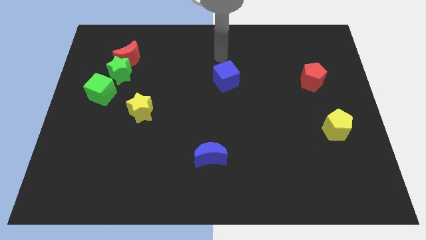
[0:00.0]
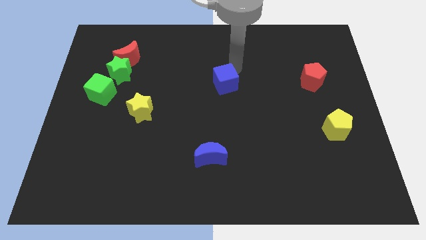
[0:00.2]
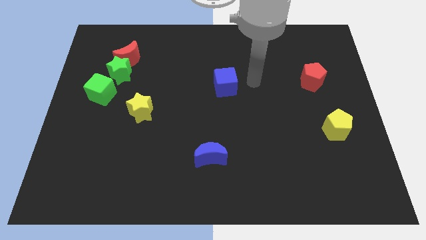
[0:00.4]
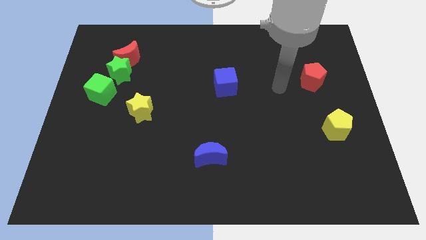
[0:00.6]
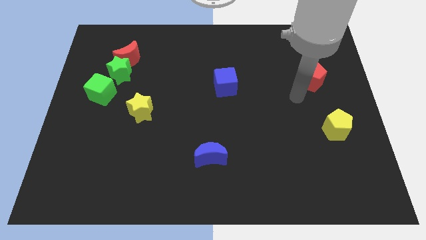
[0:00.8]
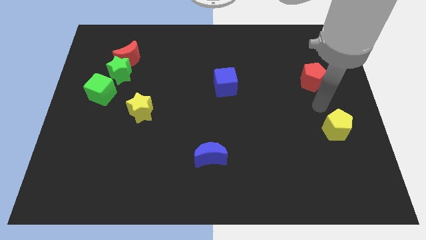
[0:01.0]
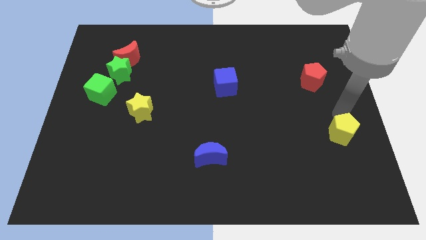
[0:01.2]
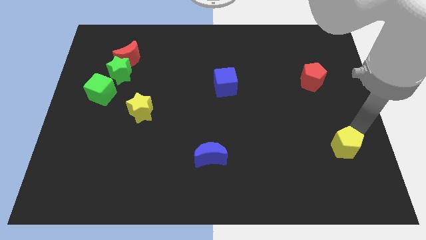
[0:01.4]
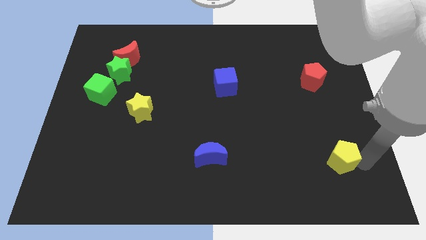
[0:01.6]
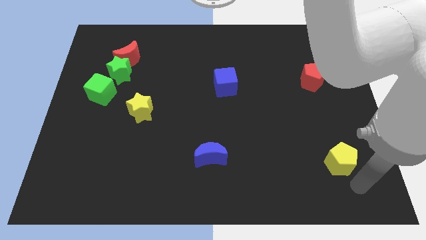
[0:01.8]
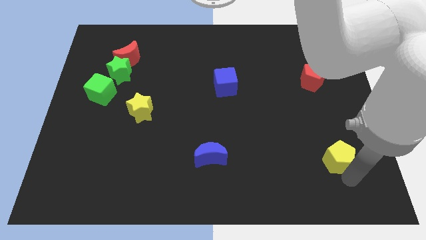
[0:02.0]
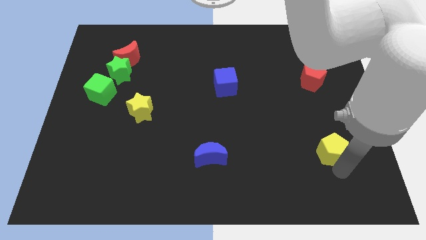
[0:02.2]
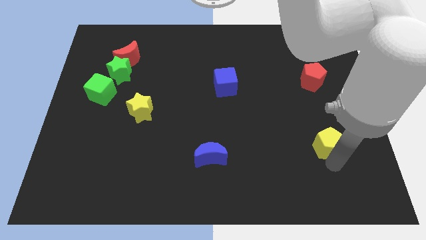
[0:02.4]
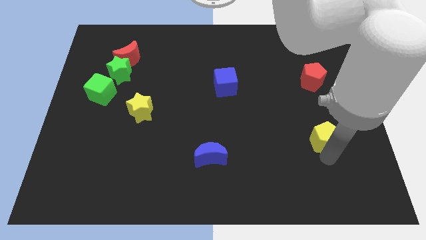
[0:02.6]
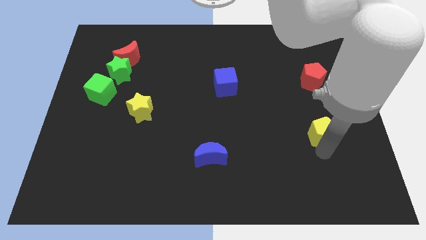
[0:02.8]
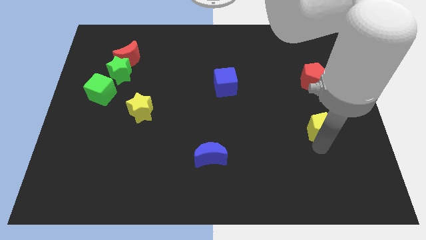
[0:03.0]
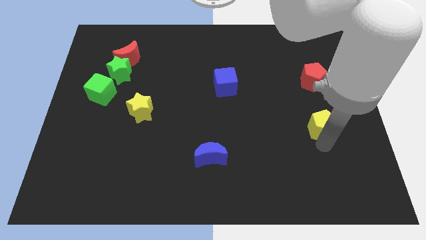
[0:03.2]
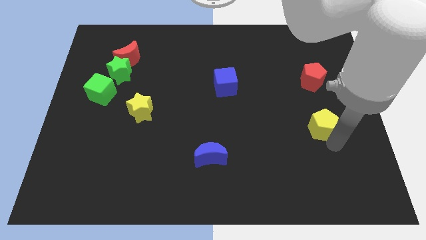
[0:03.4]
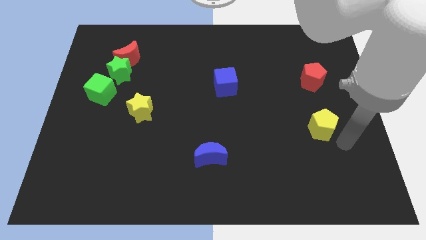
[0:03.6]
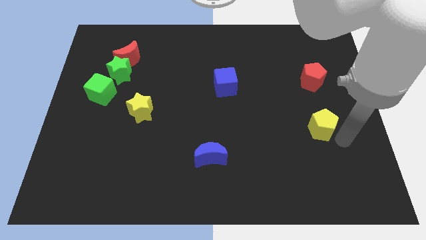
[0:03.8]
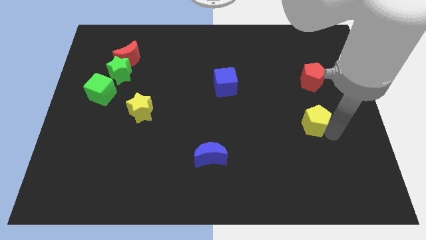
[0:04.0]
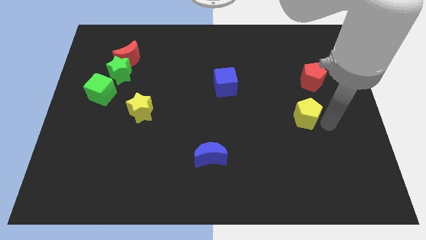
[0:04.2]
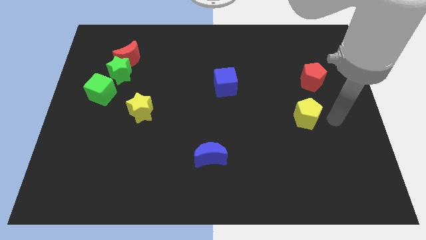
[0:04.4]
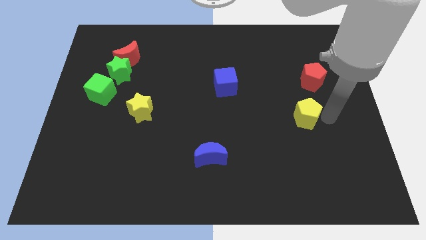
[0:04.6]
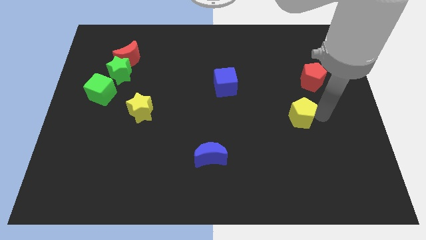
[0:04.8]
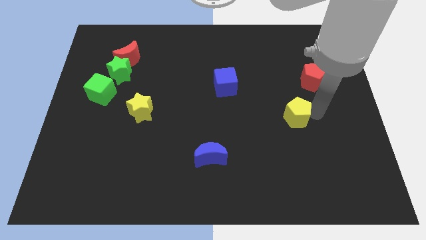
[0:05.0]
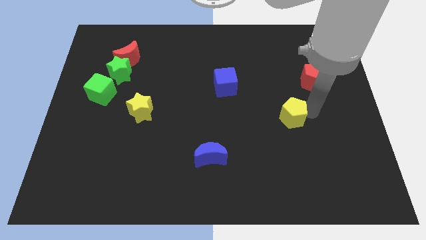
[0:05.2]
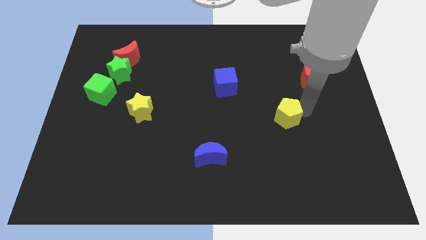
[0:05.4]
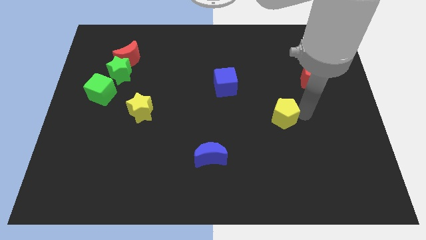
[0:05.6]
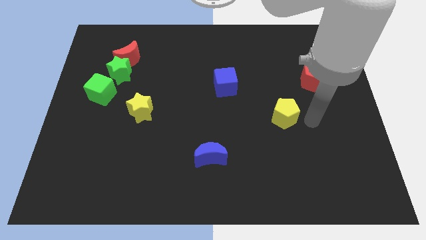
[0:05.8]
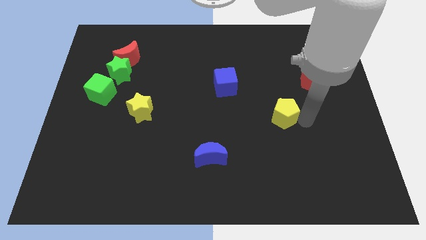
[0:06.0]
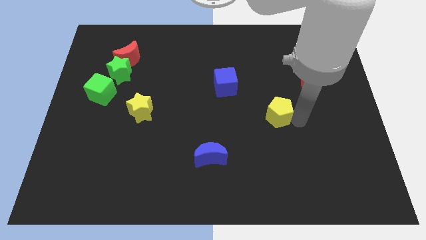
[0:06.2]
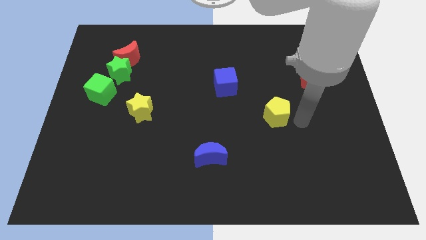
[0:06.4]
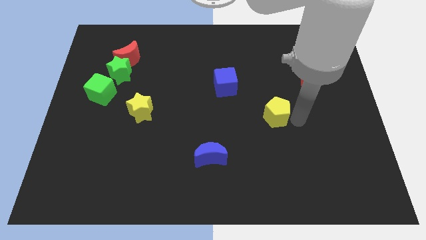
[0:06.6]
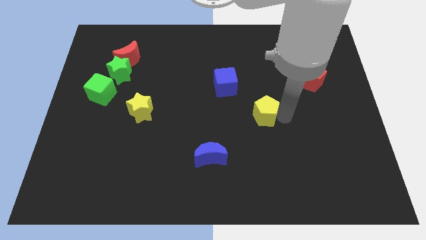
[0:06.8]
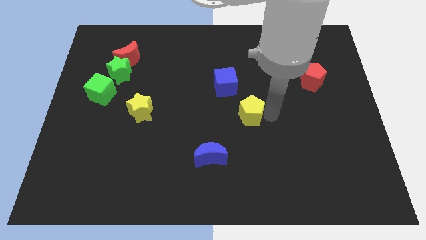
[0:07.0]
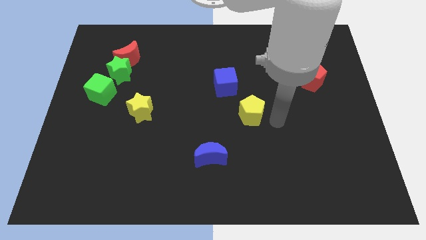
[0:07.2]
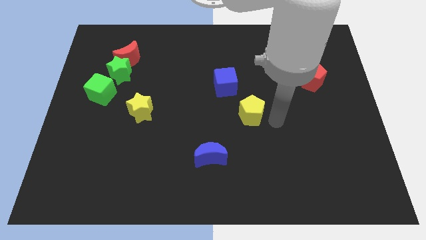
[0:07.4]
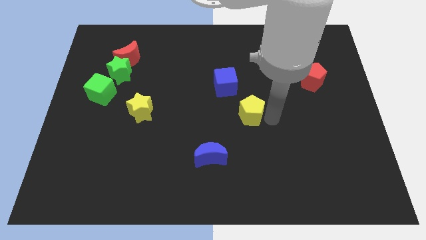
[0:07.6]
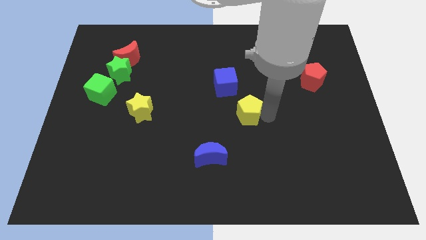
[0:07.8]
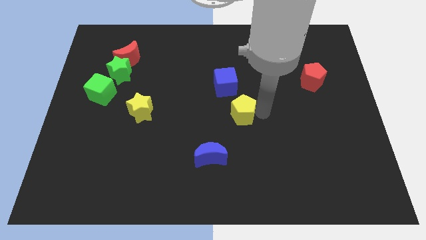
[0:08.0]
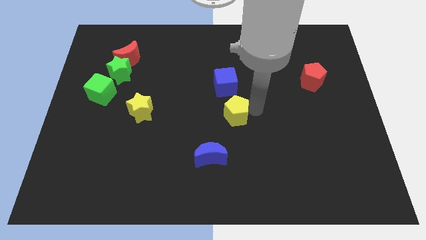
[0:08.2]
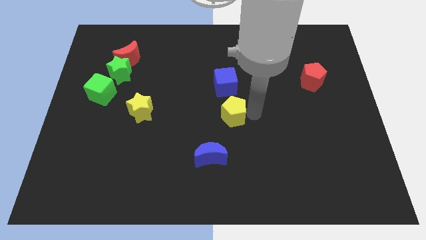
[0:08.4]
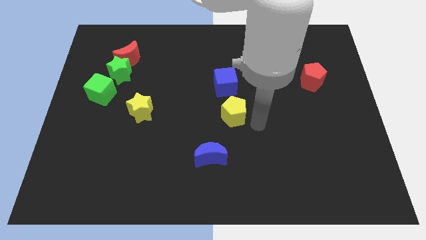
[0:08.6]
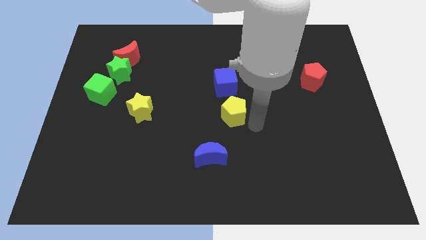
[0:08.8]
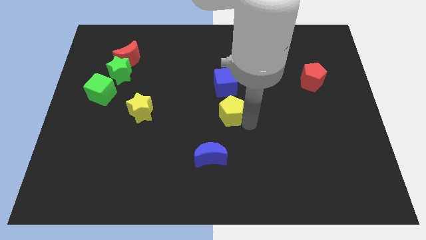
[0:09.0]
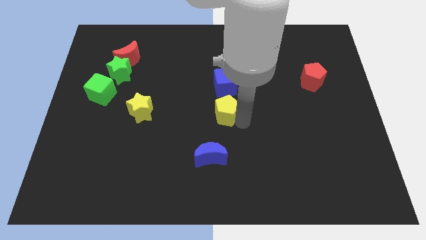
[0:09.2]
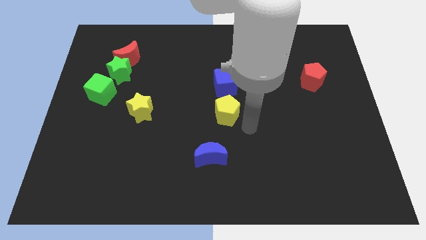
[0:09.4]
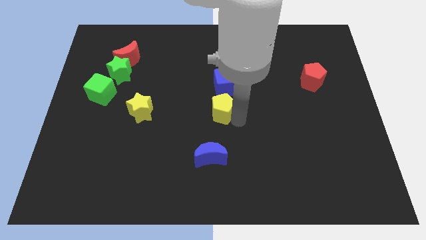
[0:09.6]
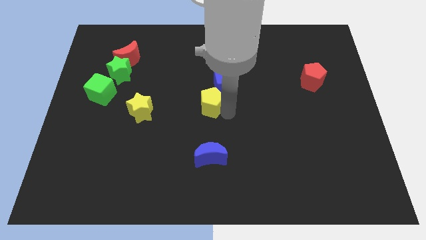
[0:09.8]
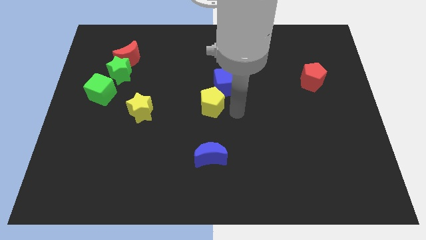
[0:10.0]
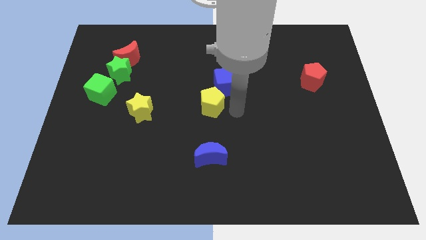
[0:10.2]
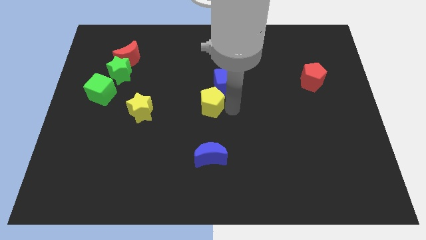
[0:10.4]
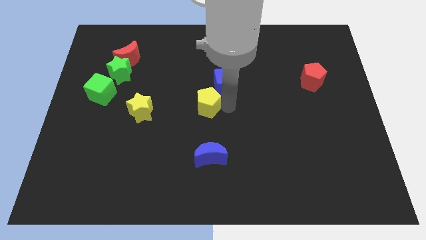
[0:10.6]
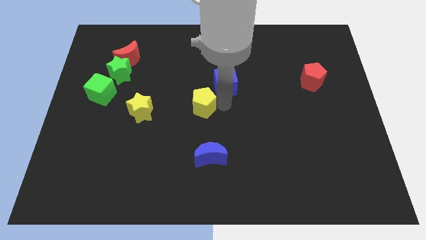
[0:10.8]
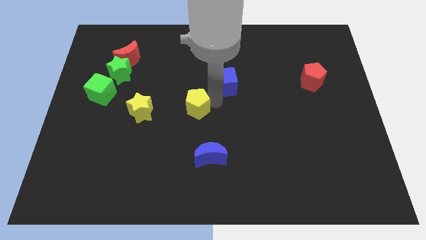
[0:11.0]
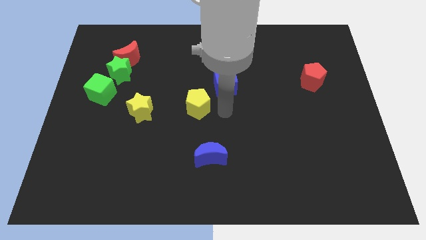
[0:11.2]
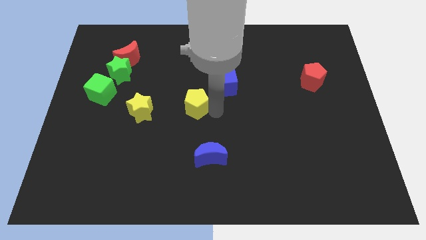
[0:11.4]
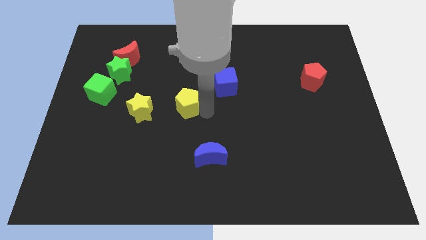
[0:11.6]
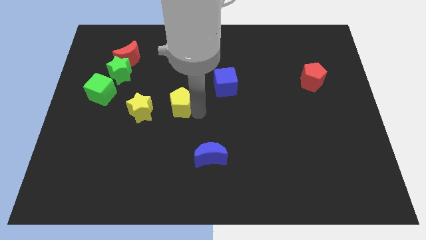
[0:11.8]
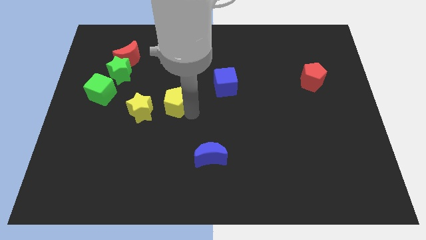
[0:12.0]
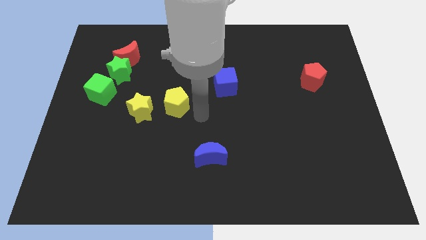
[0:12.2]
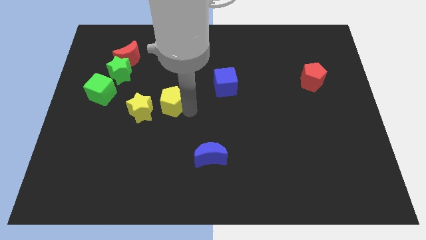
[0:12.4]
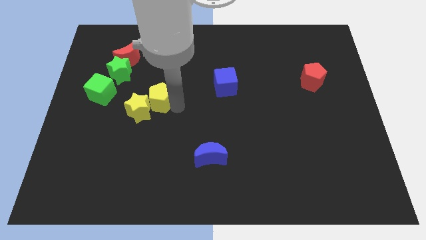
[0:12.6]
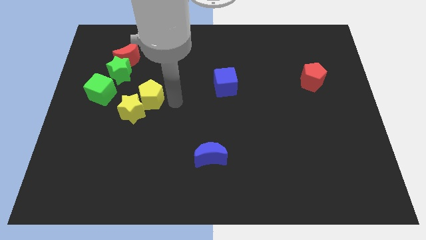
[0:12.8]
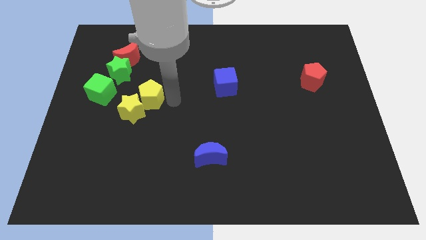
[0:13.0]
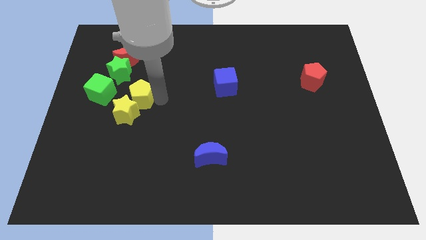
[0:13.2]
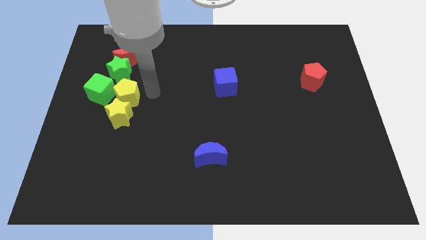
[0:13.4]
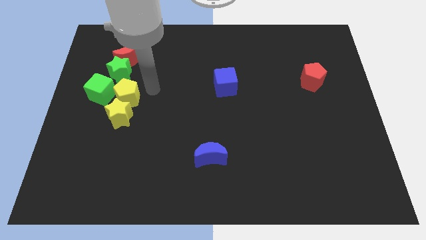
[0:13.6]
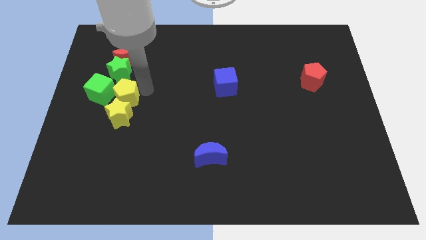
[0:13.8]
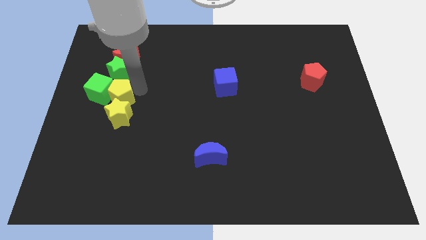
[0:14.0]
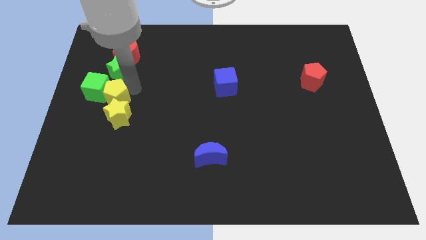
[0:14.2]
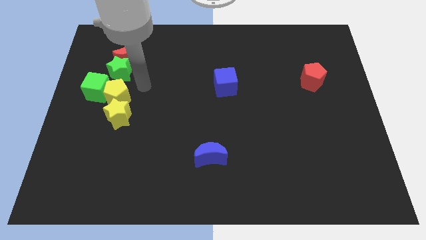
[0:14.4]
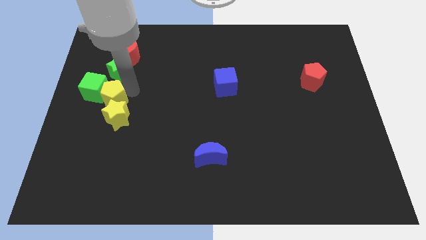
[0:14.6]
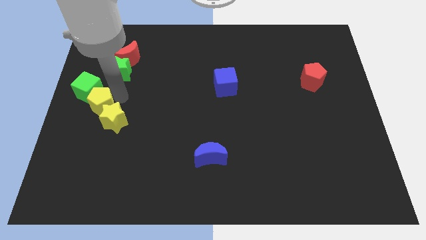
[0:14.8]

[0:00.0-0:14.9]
move the yellow pentagon to the center left
